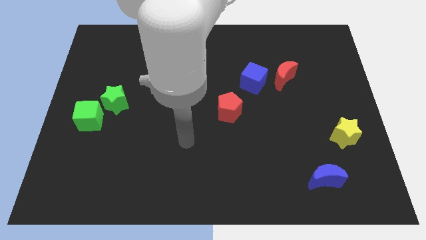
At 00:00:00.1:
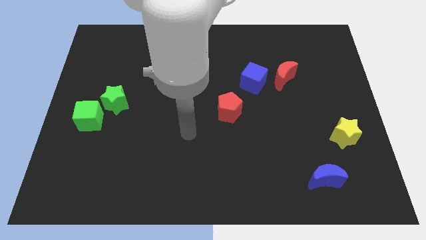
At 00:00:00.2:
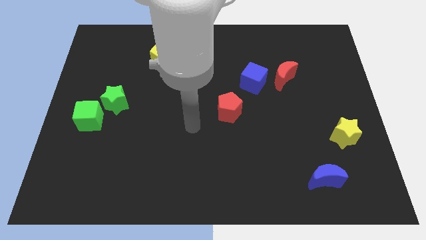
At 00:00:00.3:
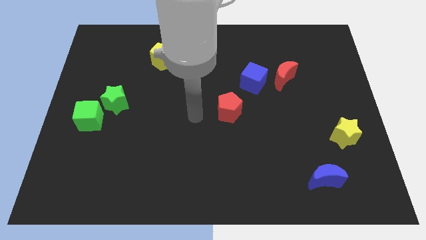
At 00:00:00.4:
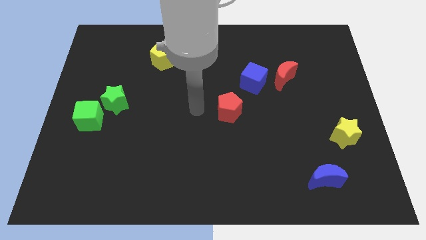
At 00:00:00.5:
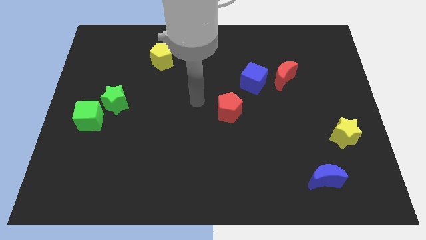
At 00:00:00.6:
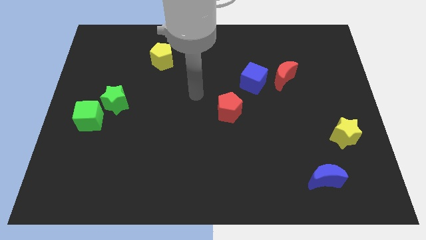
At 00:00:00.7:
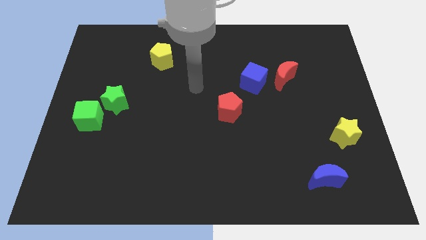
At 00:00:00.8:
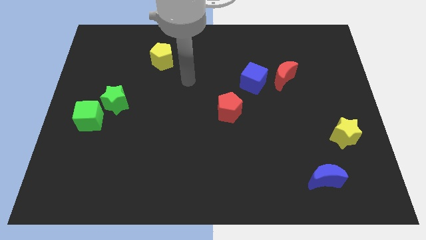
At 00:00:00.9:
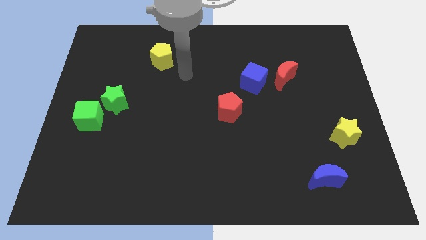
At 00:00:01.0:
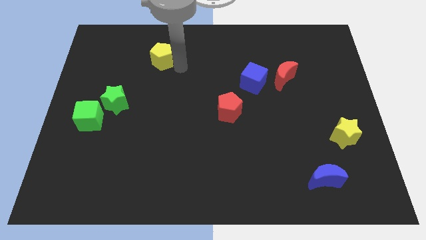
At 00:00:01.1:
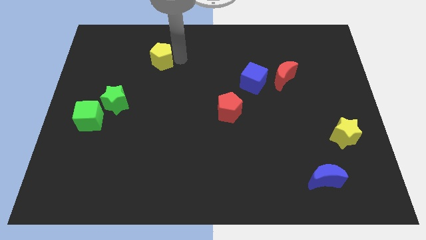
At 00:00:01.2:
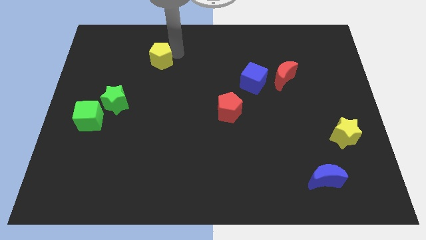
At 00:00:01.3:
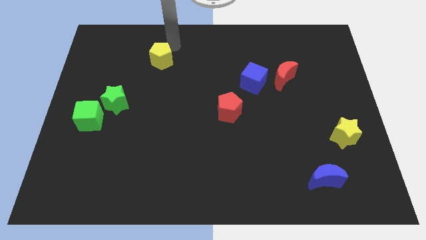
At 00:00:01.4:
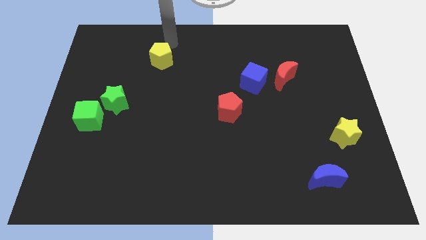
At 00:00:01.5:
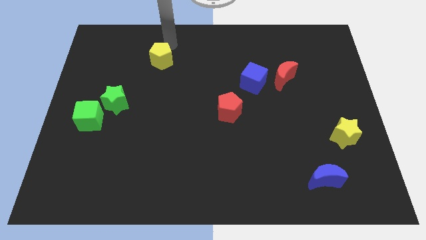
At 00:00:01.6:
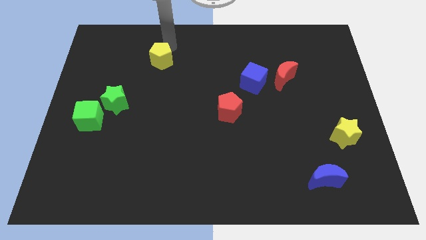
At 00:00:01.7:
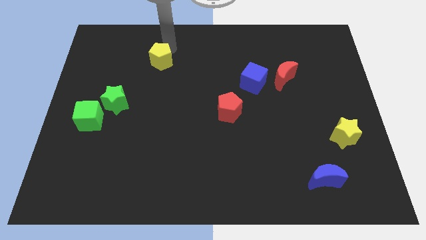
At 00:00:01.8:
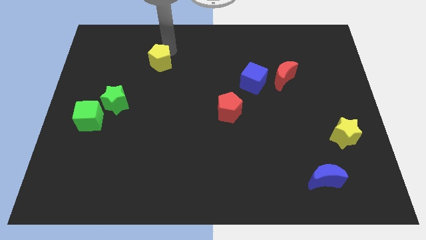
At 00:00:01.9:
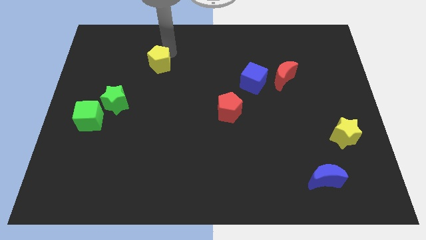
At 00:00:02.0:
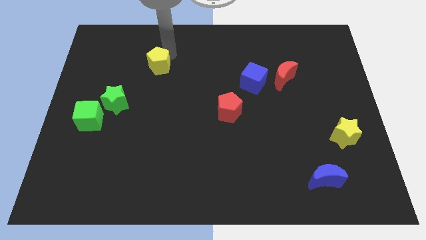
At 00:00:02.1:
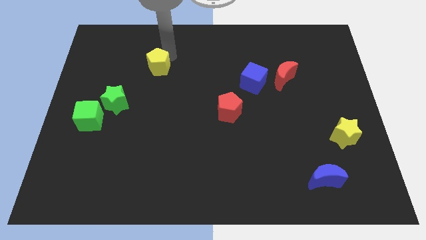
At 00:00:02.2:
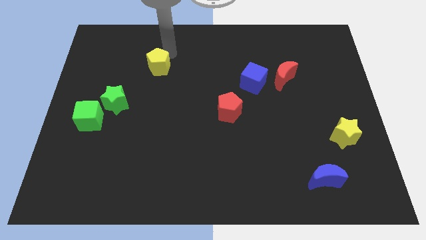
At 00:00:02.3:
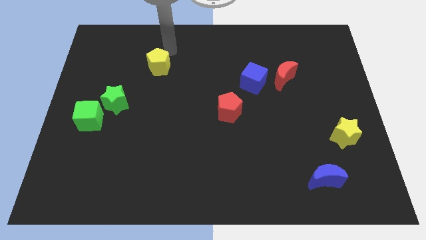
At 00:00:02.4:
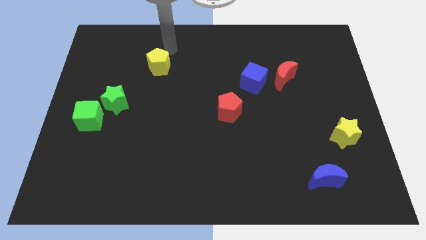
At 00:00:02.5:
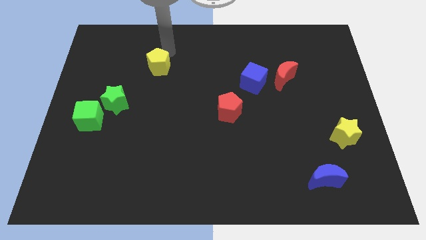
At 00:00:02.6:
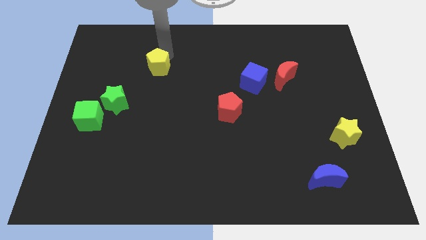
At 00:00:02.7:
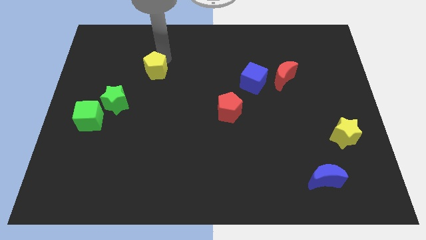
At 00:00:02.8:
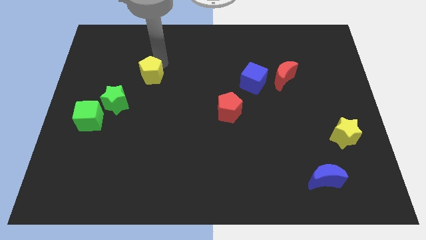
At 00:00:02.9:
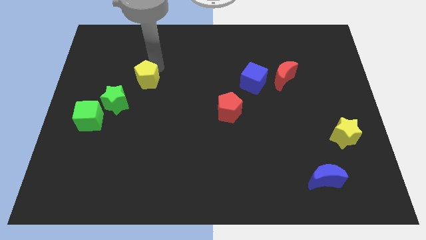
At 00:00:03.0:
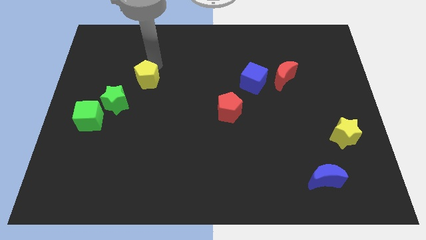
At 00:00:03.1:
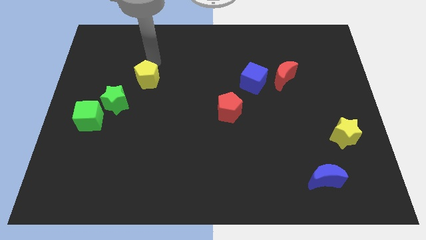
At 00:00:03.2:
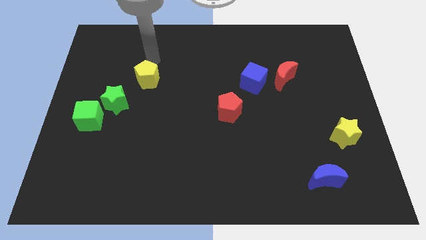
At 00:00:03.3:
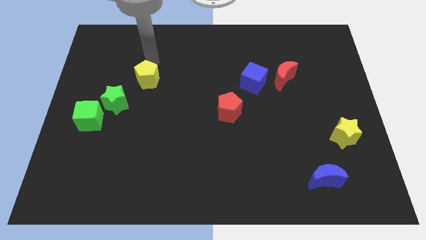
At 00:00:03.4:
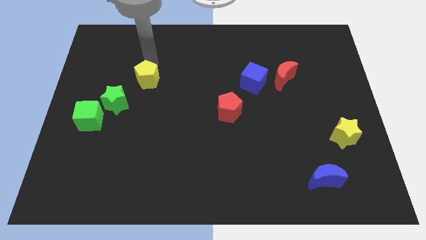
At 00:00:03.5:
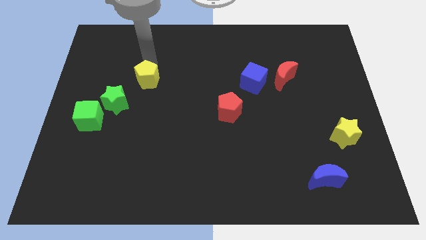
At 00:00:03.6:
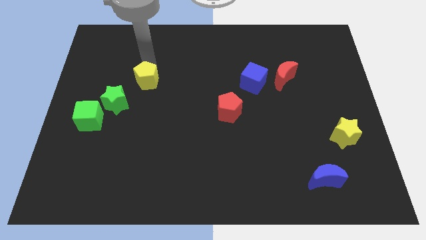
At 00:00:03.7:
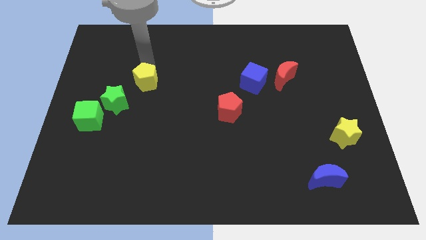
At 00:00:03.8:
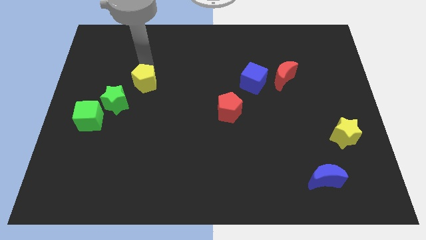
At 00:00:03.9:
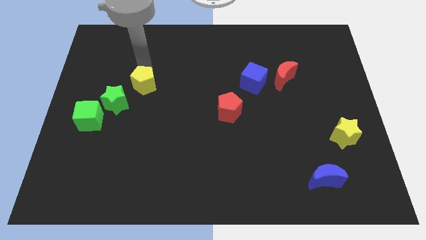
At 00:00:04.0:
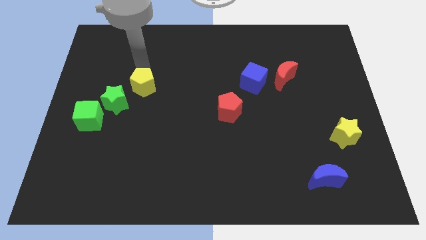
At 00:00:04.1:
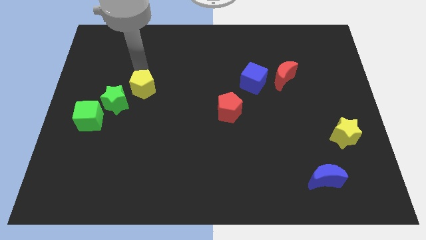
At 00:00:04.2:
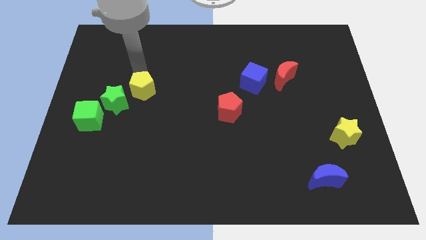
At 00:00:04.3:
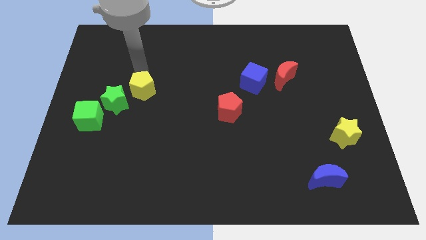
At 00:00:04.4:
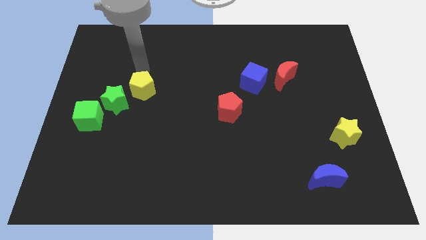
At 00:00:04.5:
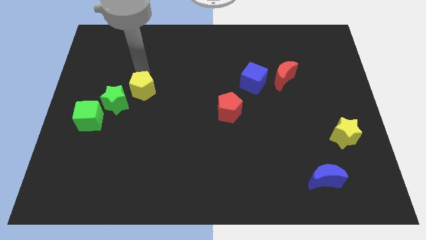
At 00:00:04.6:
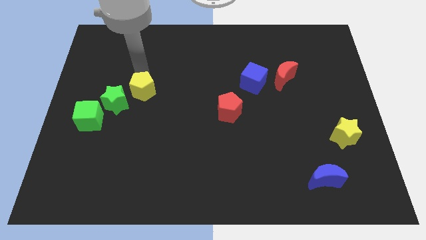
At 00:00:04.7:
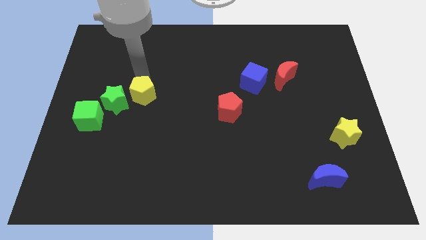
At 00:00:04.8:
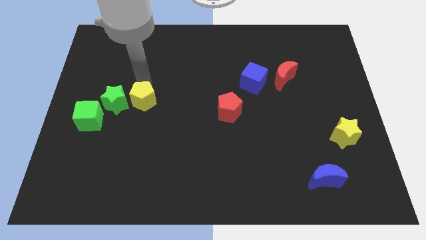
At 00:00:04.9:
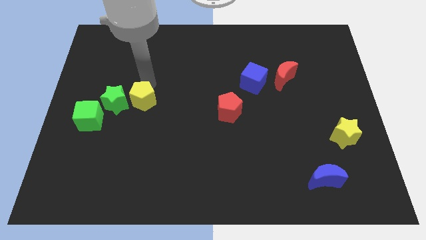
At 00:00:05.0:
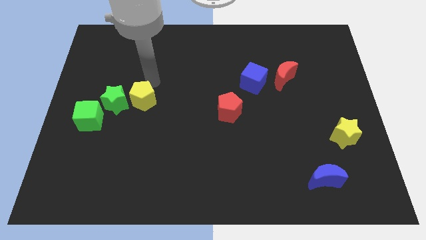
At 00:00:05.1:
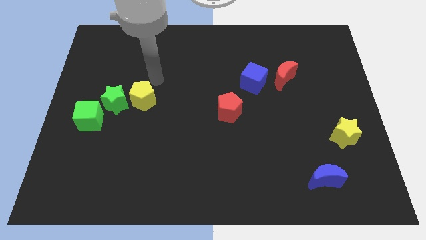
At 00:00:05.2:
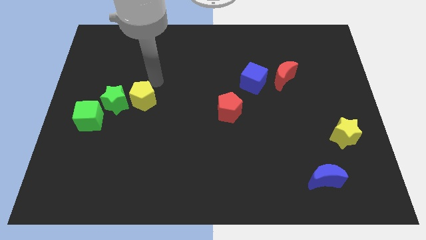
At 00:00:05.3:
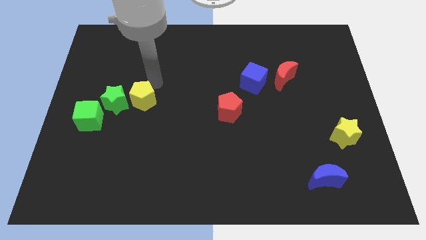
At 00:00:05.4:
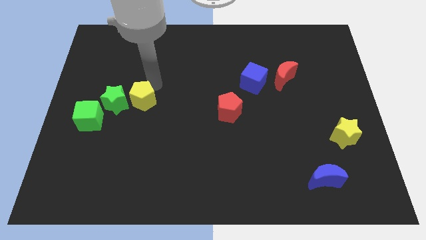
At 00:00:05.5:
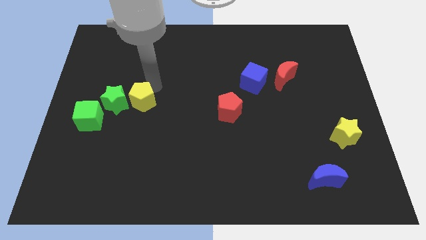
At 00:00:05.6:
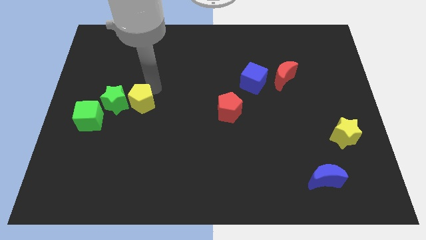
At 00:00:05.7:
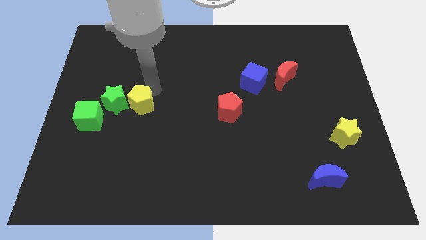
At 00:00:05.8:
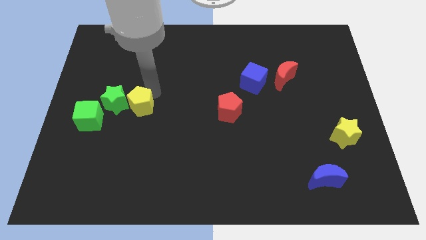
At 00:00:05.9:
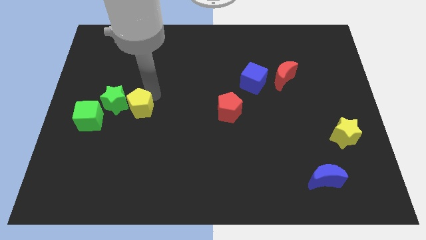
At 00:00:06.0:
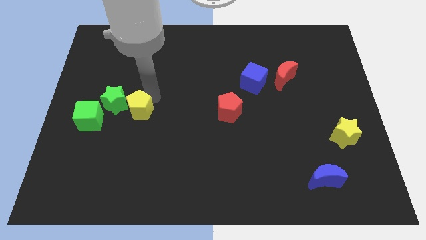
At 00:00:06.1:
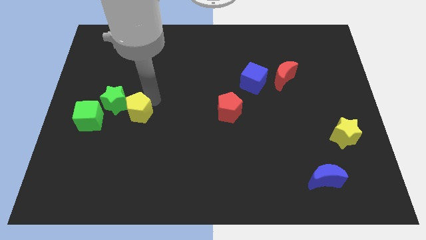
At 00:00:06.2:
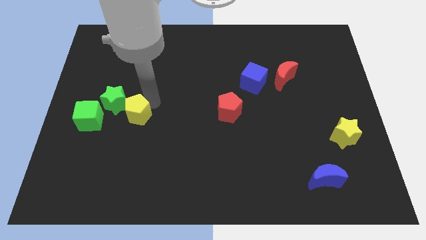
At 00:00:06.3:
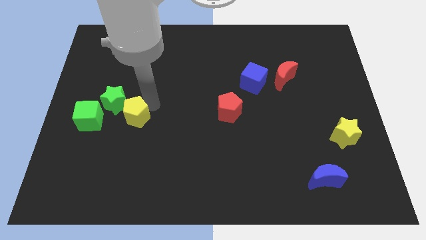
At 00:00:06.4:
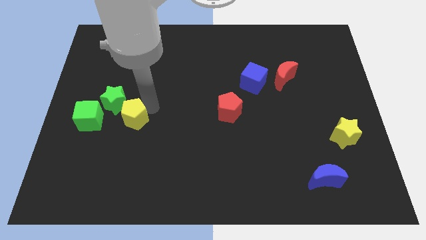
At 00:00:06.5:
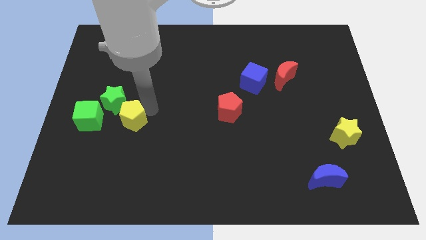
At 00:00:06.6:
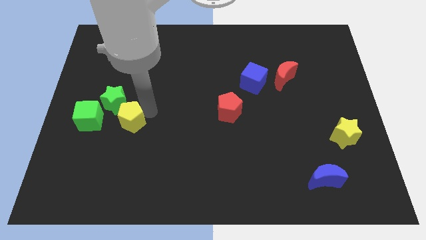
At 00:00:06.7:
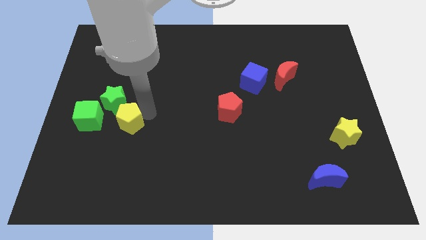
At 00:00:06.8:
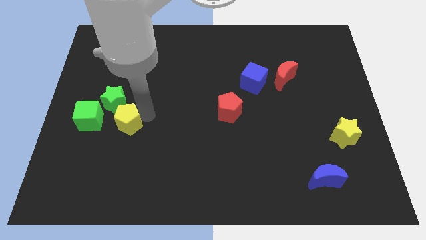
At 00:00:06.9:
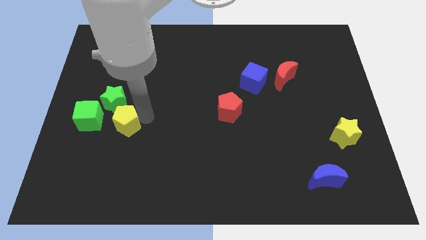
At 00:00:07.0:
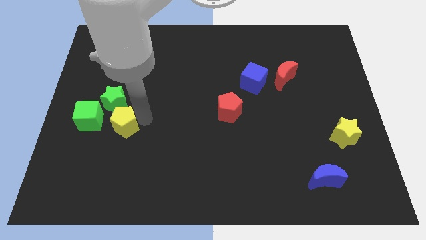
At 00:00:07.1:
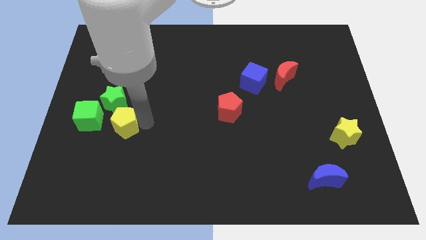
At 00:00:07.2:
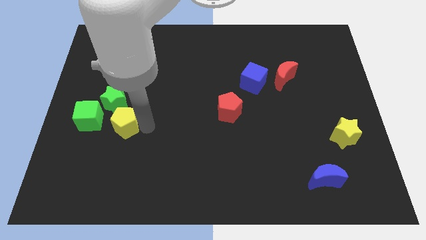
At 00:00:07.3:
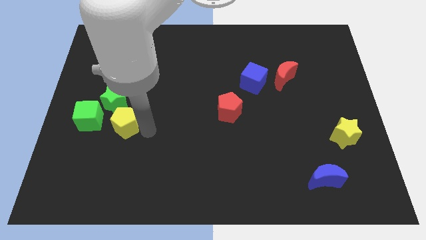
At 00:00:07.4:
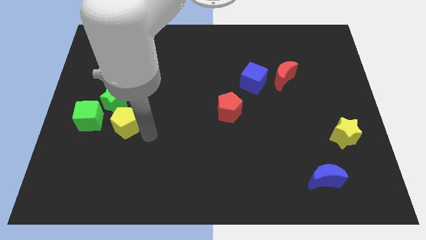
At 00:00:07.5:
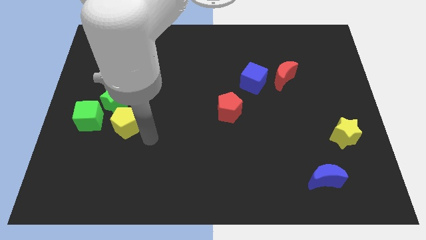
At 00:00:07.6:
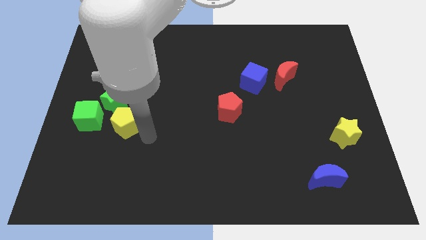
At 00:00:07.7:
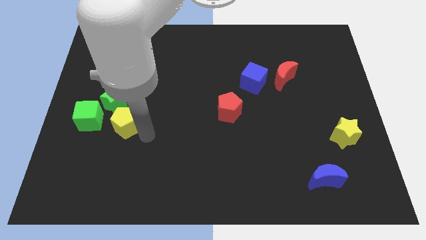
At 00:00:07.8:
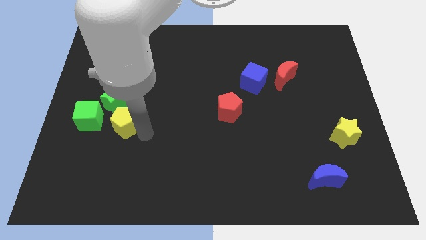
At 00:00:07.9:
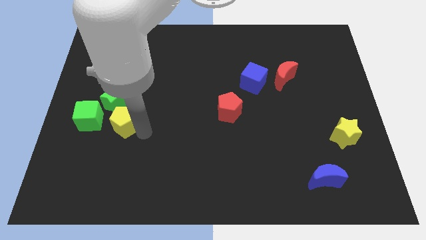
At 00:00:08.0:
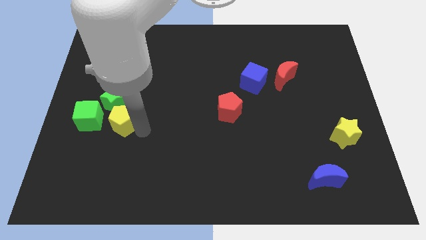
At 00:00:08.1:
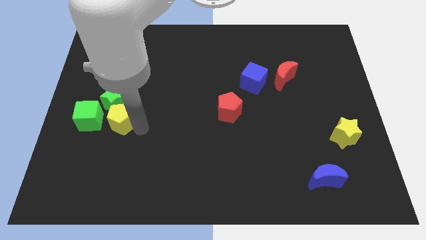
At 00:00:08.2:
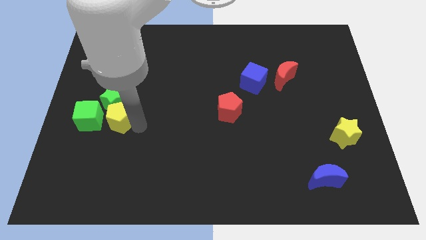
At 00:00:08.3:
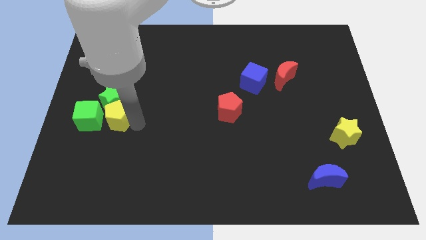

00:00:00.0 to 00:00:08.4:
push the yellow pentagon to the bottom left side of the green star
